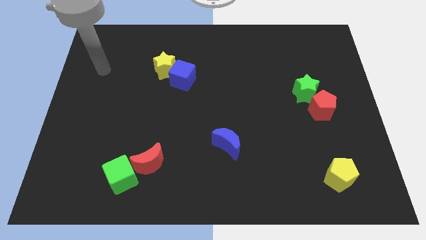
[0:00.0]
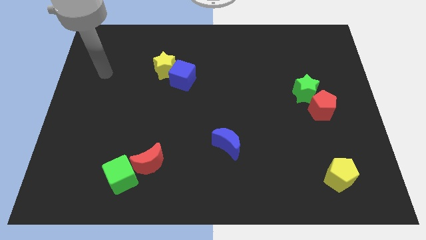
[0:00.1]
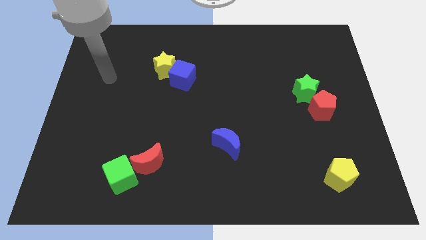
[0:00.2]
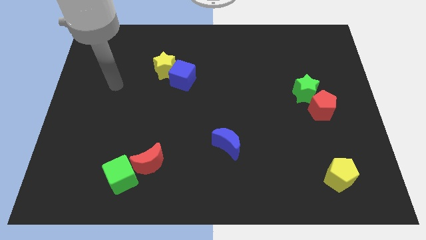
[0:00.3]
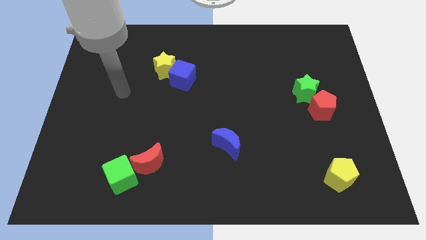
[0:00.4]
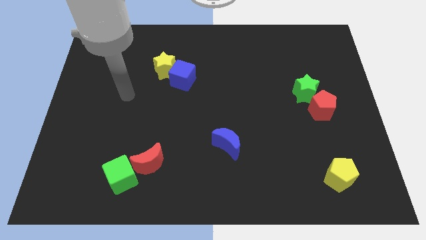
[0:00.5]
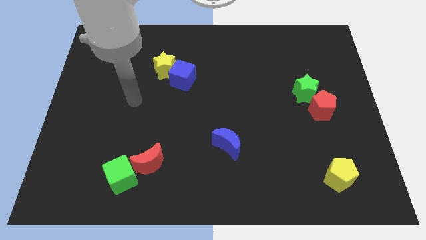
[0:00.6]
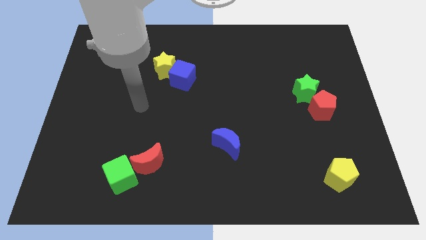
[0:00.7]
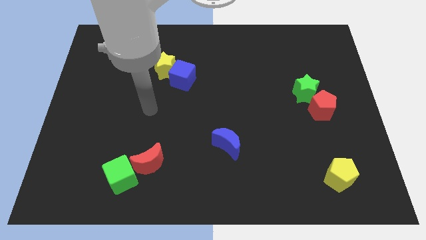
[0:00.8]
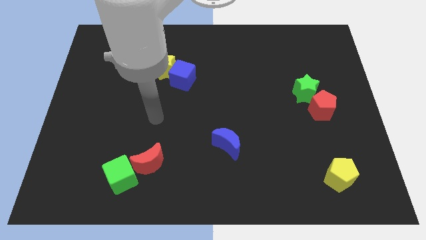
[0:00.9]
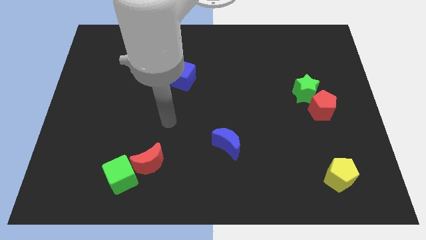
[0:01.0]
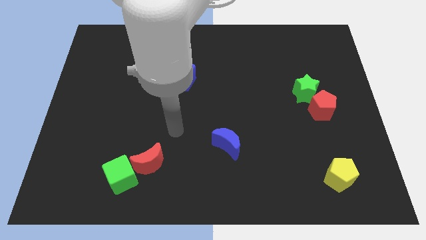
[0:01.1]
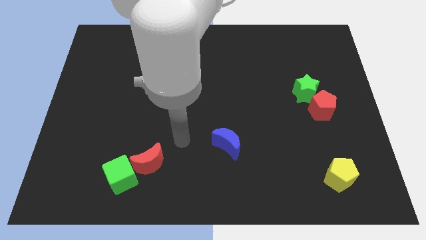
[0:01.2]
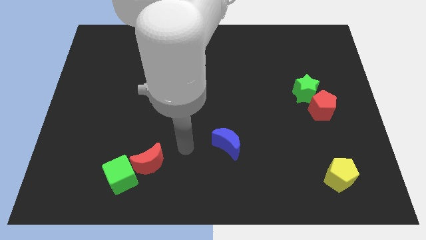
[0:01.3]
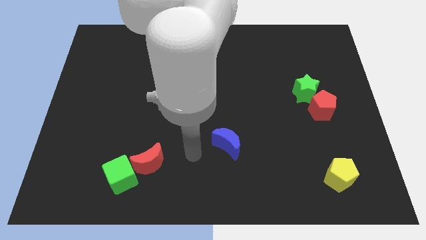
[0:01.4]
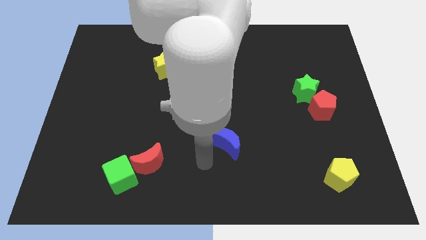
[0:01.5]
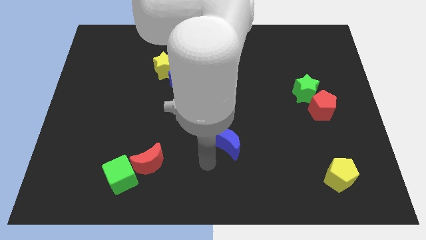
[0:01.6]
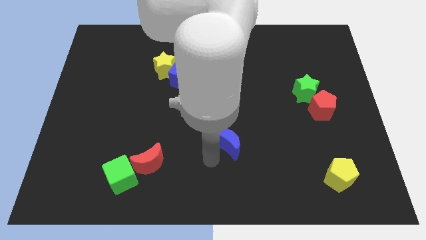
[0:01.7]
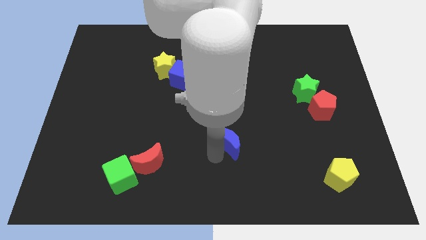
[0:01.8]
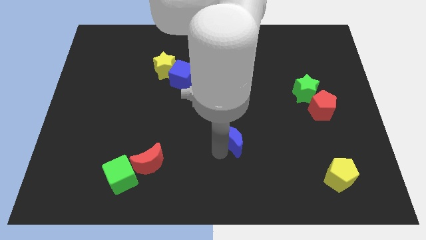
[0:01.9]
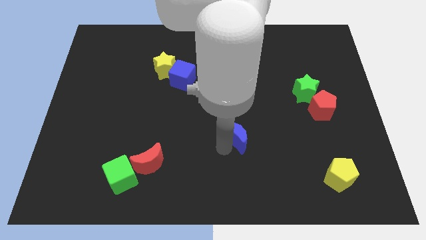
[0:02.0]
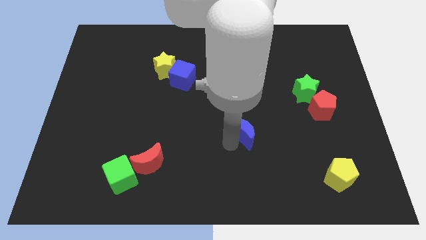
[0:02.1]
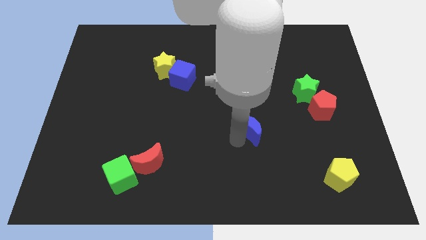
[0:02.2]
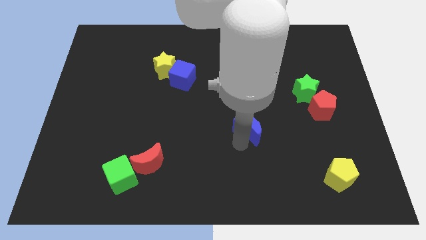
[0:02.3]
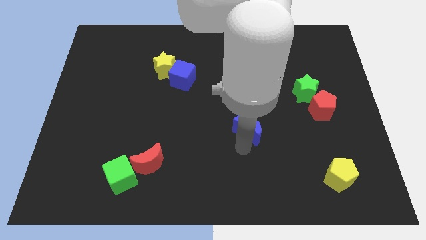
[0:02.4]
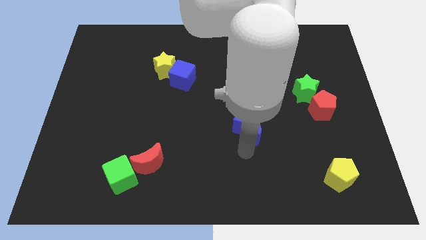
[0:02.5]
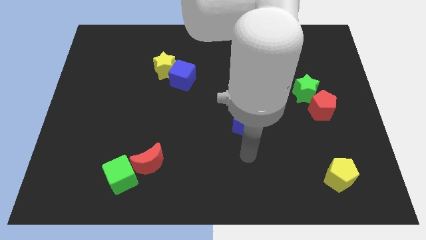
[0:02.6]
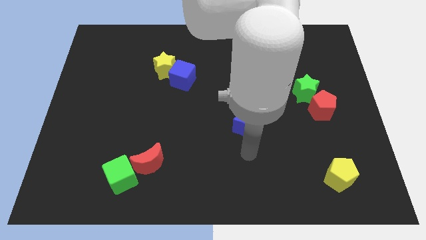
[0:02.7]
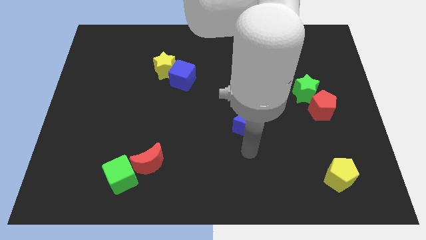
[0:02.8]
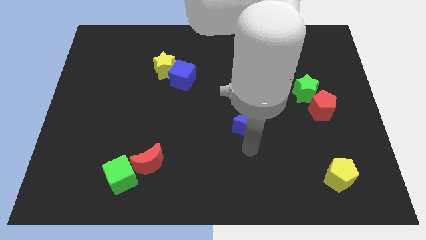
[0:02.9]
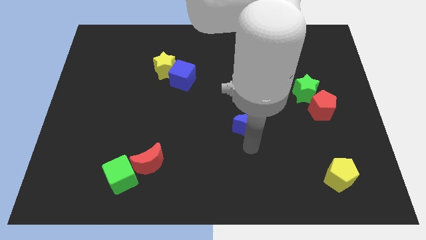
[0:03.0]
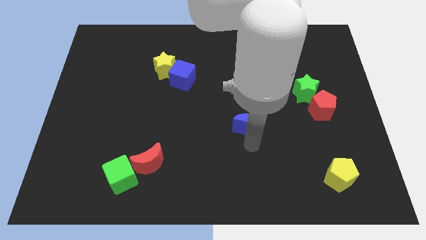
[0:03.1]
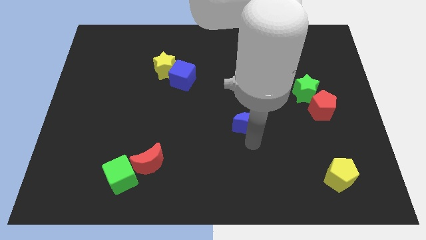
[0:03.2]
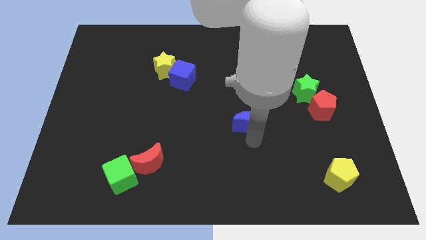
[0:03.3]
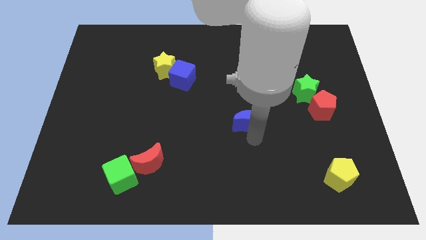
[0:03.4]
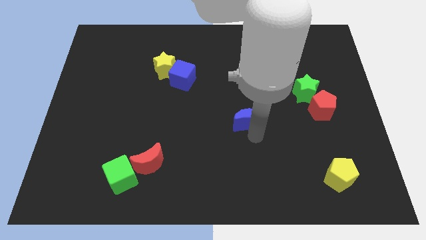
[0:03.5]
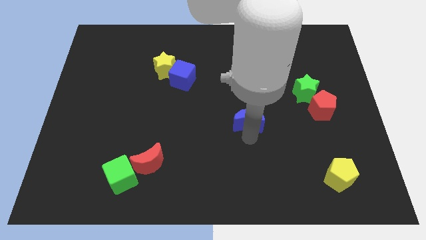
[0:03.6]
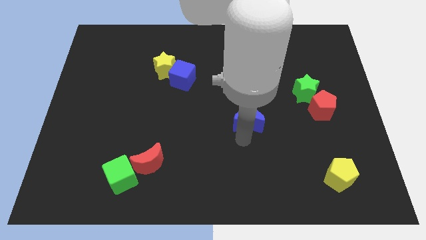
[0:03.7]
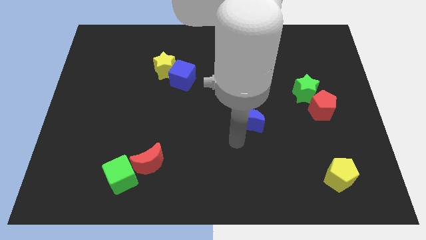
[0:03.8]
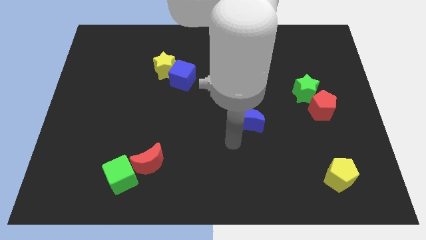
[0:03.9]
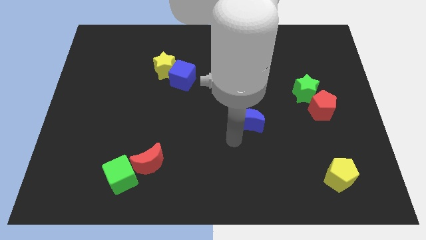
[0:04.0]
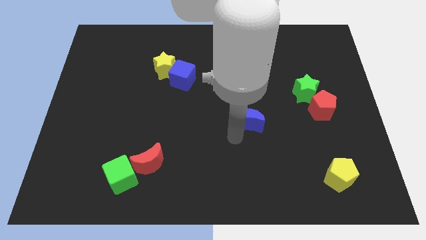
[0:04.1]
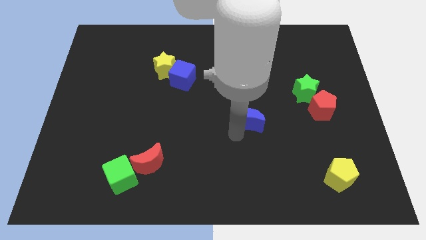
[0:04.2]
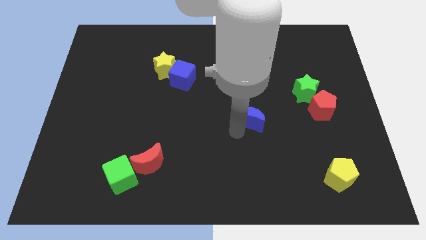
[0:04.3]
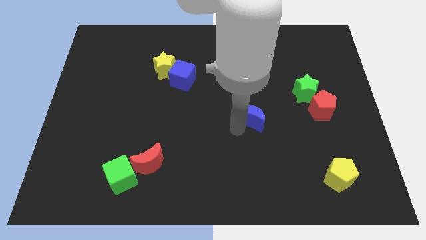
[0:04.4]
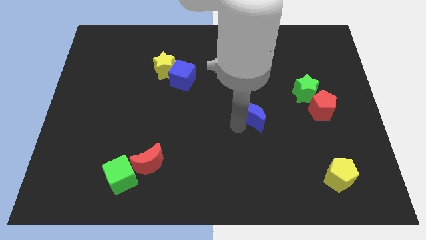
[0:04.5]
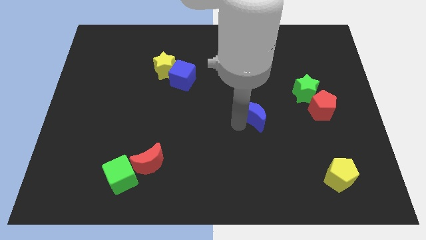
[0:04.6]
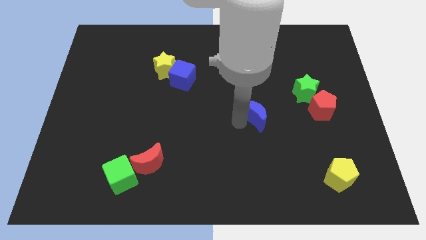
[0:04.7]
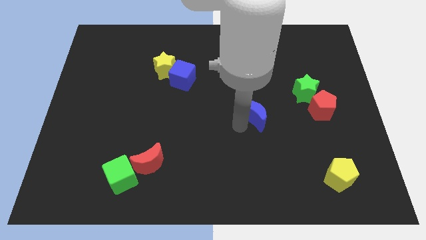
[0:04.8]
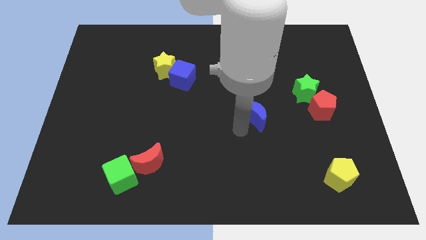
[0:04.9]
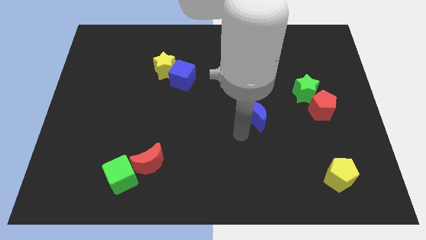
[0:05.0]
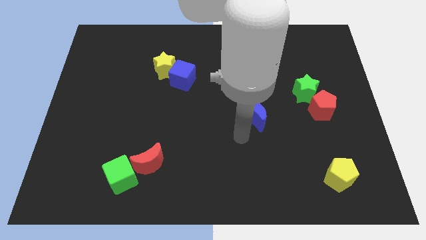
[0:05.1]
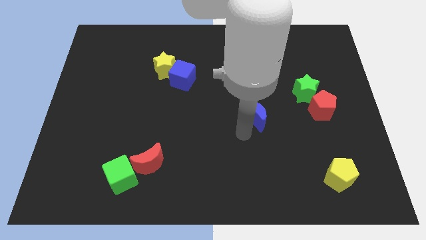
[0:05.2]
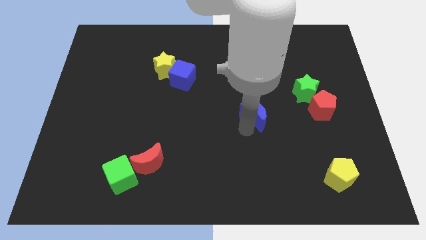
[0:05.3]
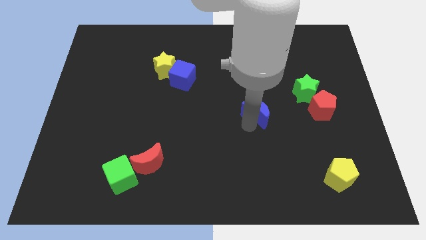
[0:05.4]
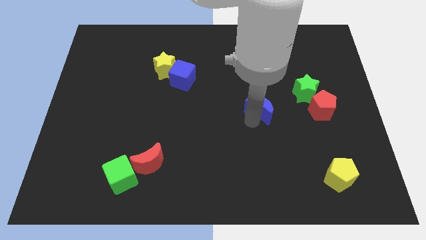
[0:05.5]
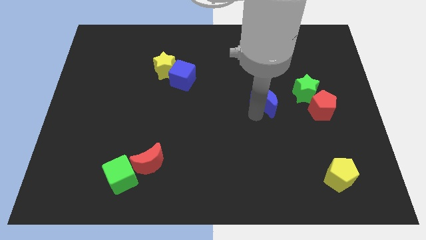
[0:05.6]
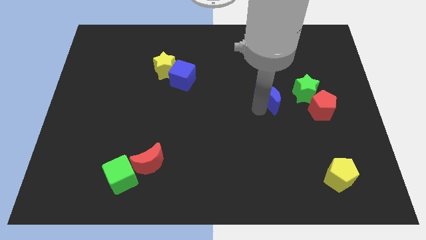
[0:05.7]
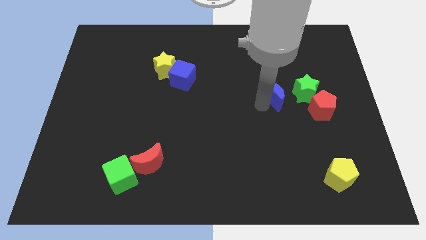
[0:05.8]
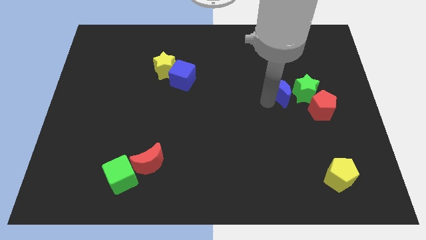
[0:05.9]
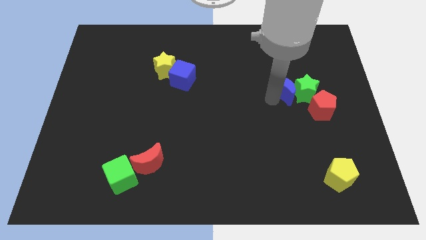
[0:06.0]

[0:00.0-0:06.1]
slide the blue moon diagonally upwards and to the right

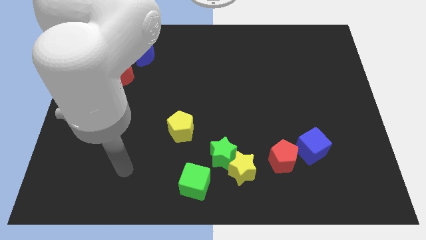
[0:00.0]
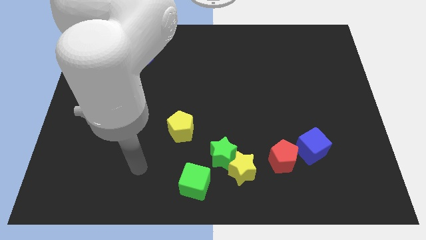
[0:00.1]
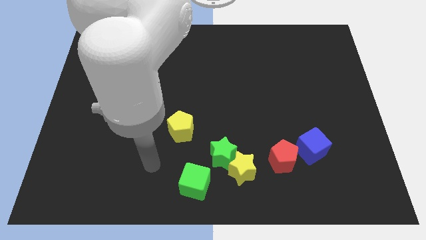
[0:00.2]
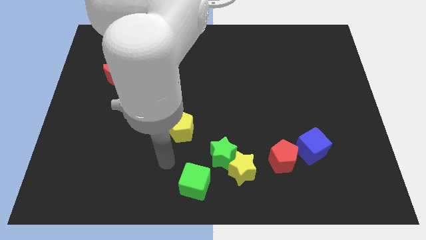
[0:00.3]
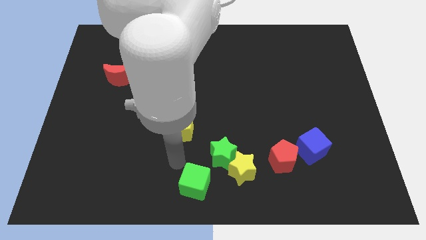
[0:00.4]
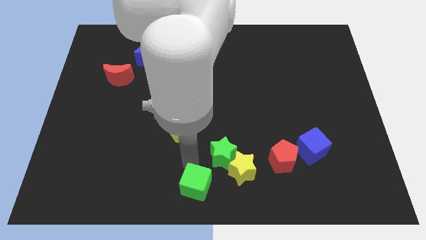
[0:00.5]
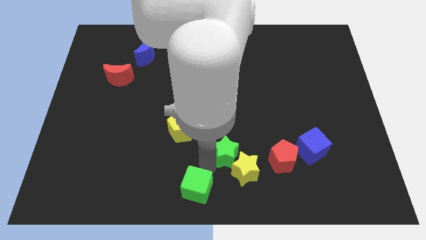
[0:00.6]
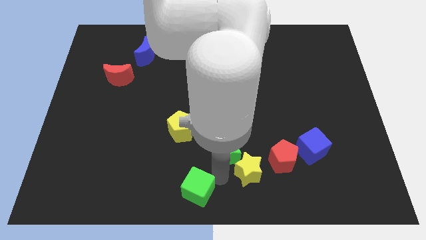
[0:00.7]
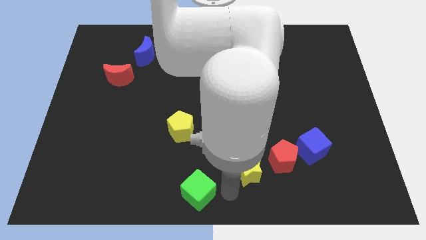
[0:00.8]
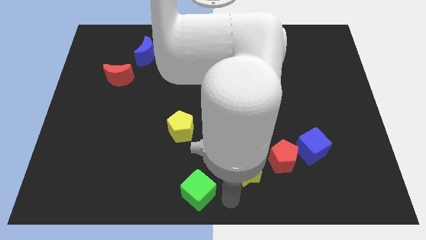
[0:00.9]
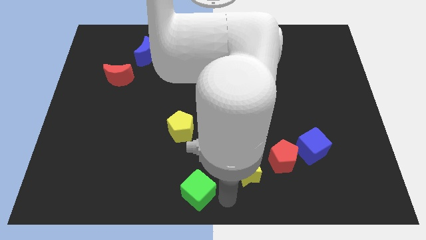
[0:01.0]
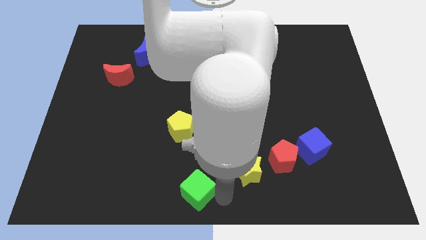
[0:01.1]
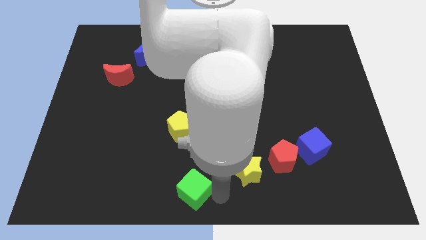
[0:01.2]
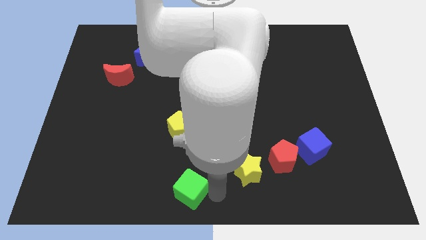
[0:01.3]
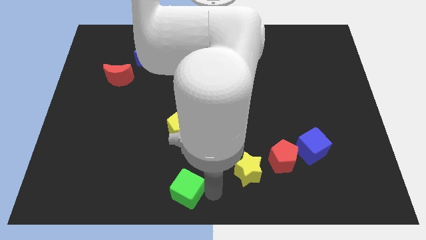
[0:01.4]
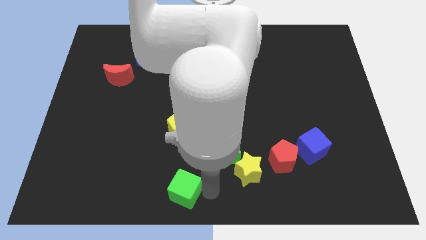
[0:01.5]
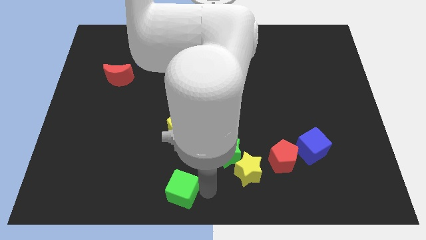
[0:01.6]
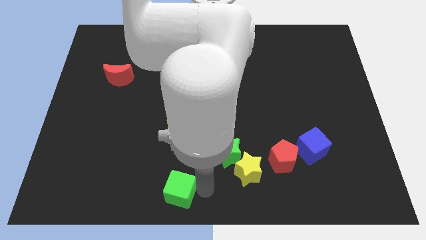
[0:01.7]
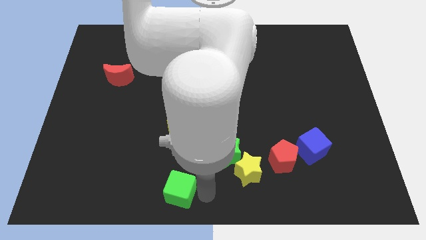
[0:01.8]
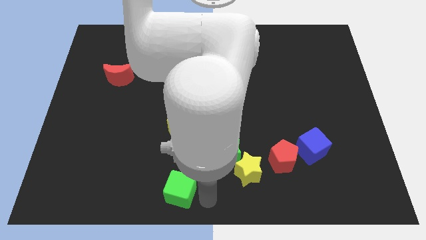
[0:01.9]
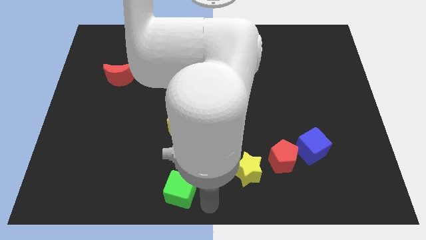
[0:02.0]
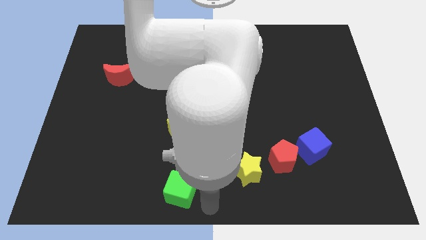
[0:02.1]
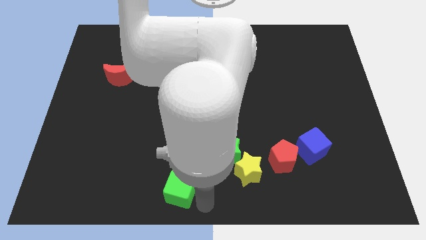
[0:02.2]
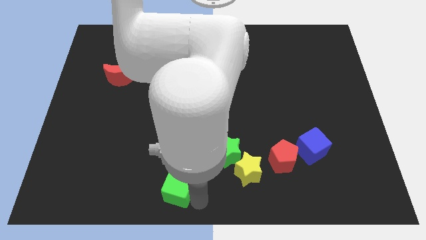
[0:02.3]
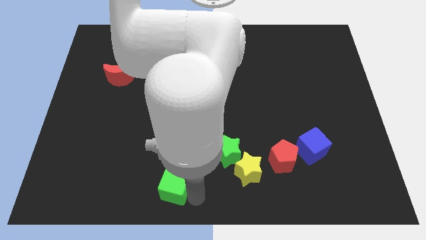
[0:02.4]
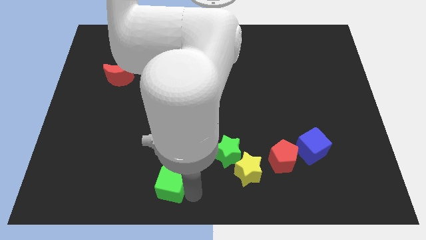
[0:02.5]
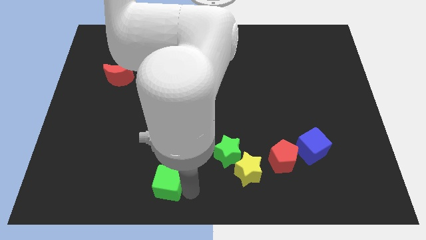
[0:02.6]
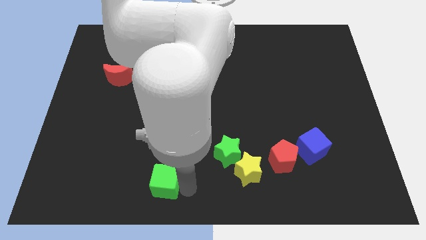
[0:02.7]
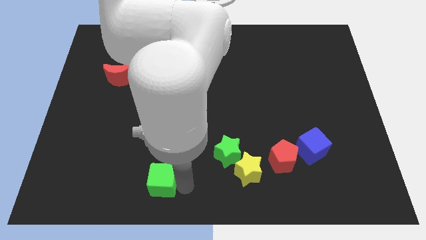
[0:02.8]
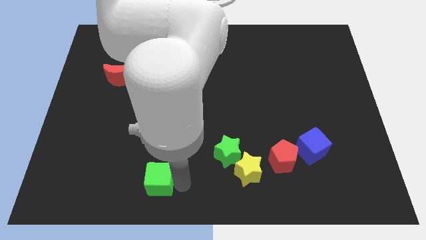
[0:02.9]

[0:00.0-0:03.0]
slide the green cube slightly to the left
